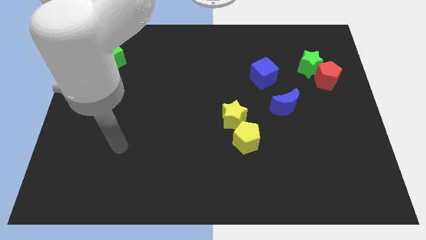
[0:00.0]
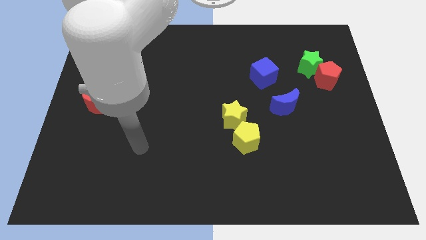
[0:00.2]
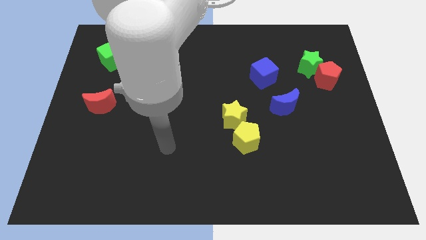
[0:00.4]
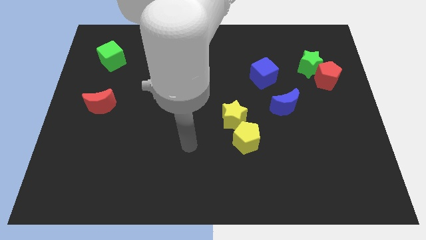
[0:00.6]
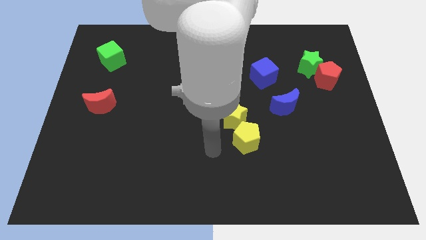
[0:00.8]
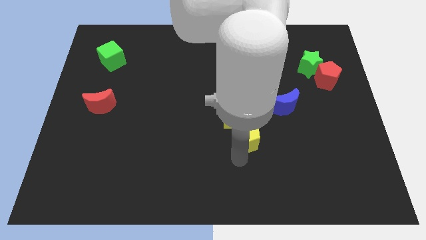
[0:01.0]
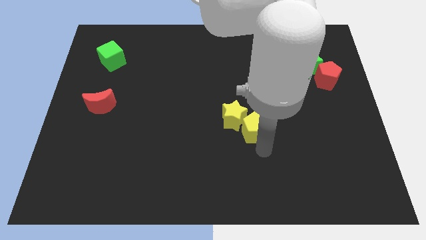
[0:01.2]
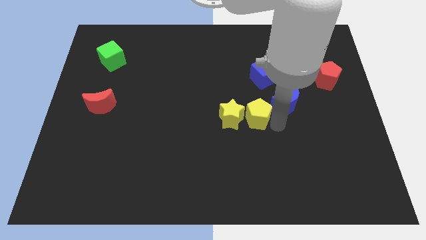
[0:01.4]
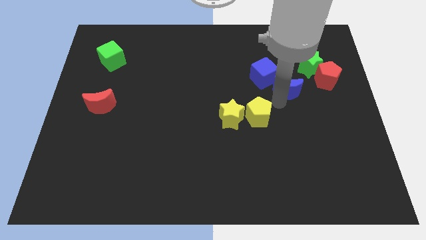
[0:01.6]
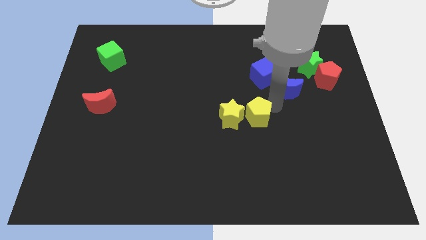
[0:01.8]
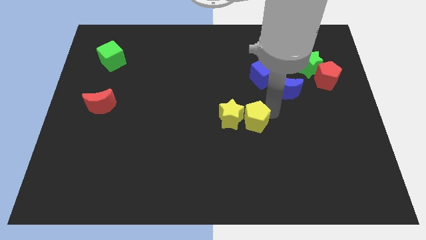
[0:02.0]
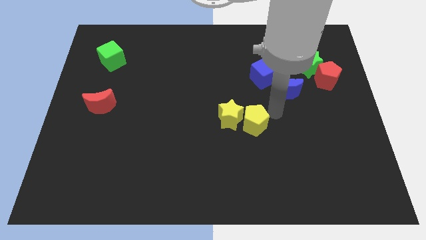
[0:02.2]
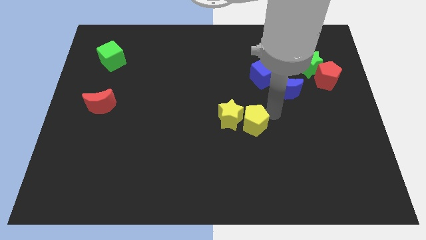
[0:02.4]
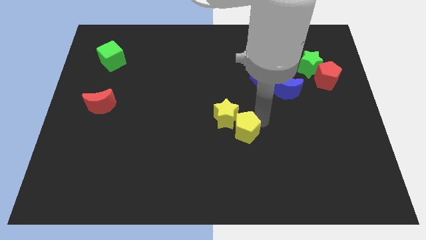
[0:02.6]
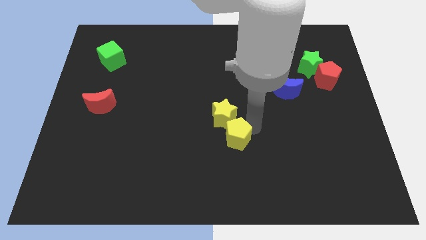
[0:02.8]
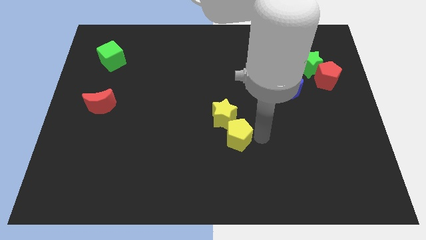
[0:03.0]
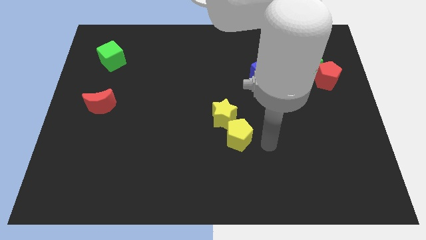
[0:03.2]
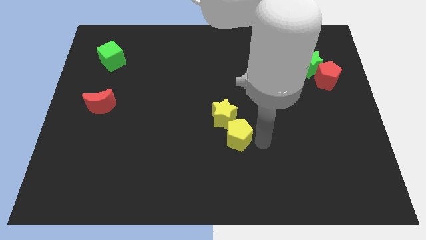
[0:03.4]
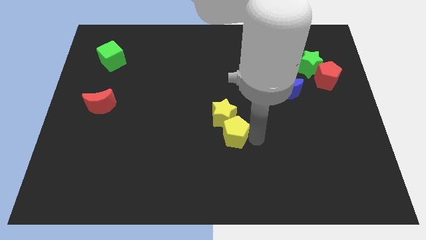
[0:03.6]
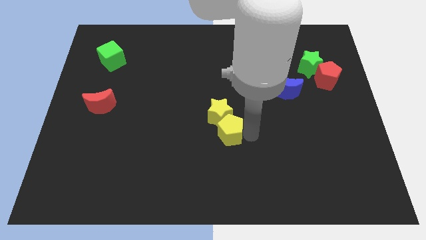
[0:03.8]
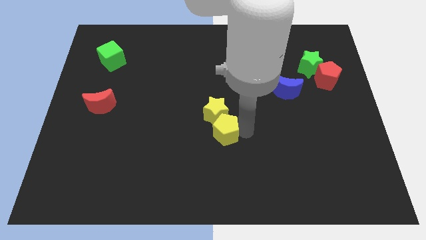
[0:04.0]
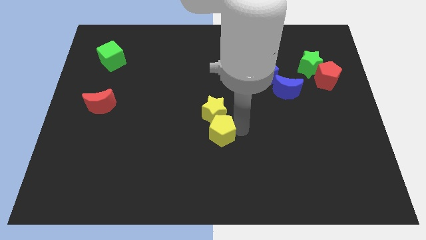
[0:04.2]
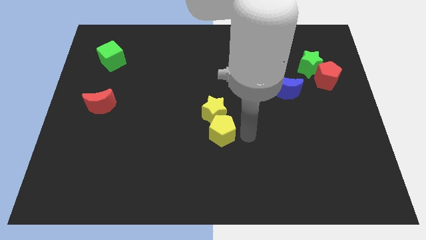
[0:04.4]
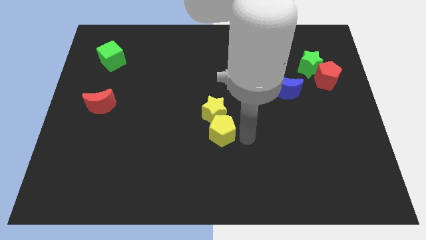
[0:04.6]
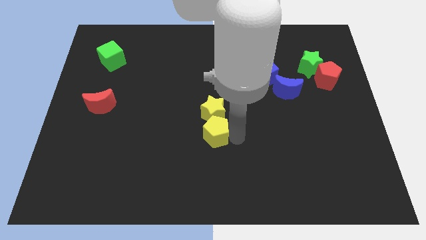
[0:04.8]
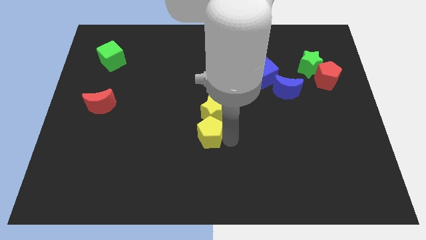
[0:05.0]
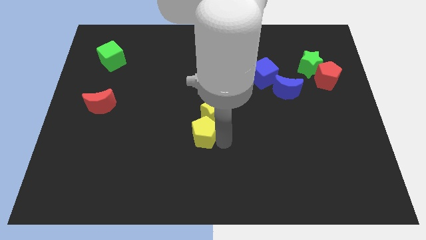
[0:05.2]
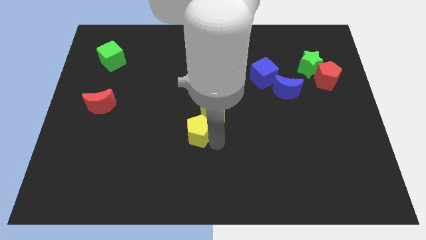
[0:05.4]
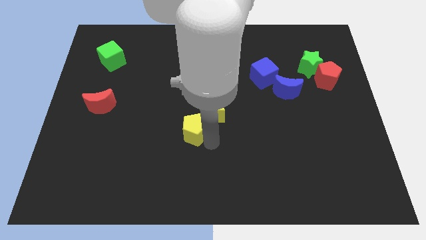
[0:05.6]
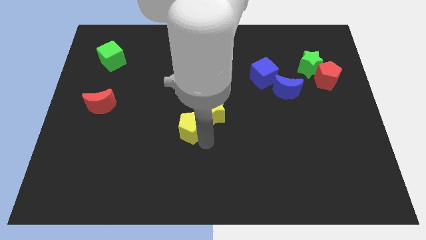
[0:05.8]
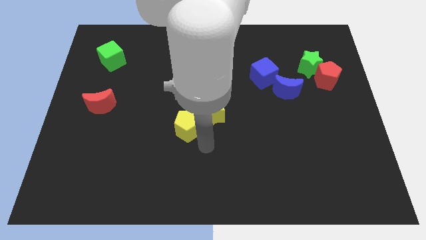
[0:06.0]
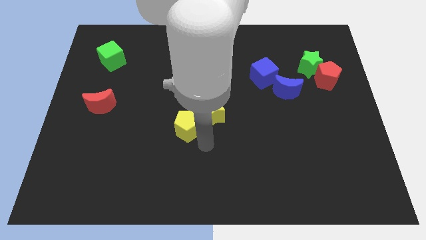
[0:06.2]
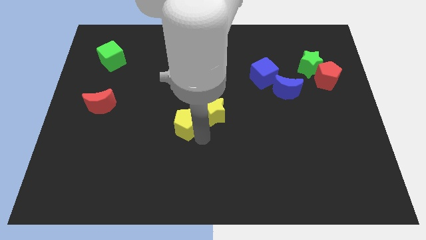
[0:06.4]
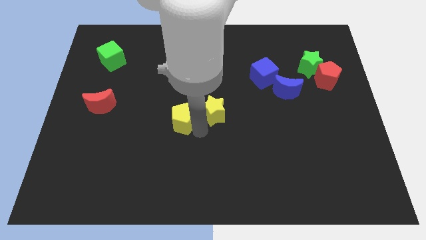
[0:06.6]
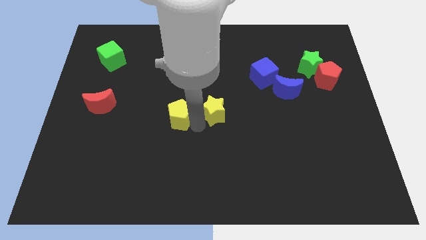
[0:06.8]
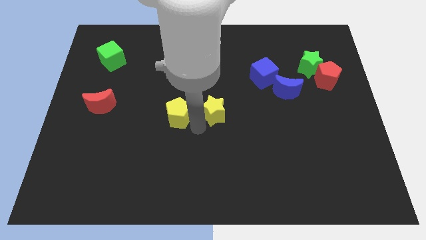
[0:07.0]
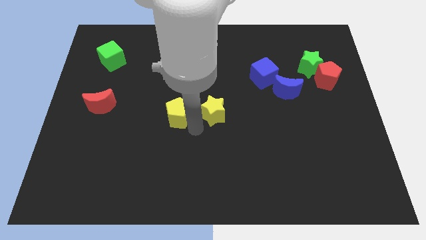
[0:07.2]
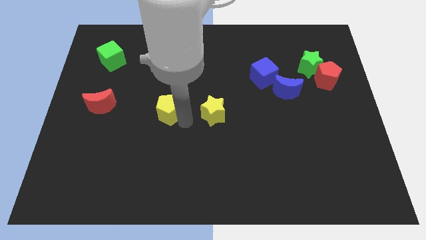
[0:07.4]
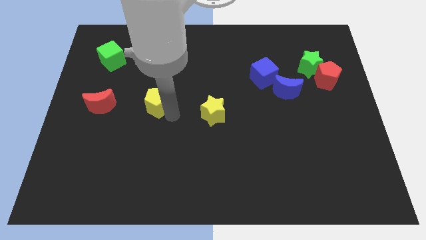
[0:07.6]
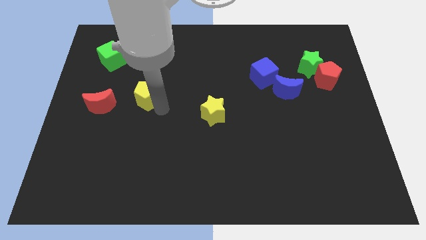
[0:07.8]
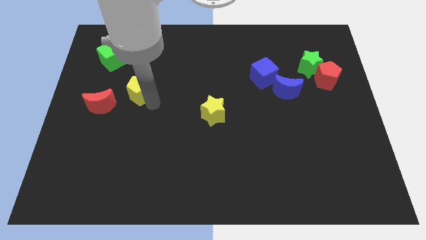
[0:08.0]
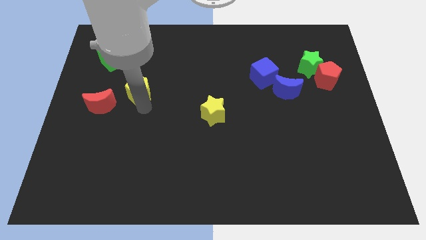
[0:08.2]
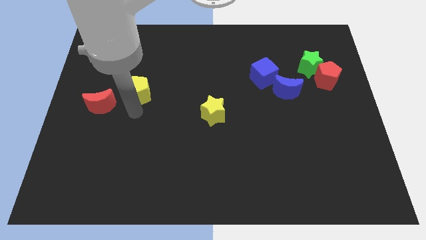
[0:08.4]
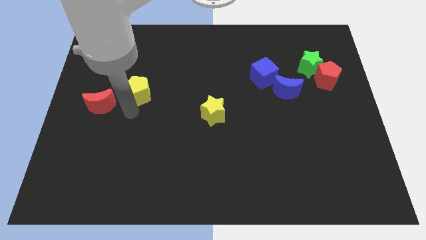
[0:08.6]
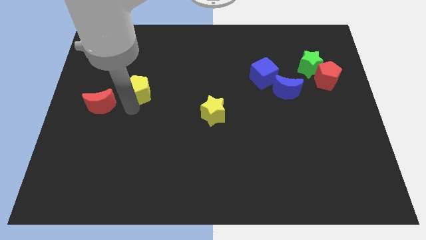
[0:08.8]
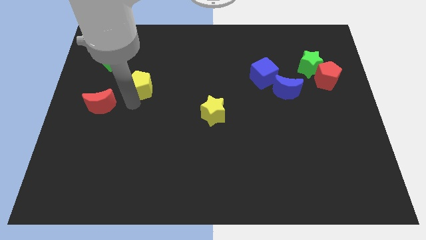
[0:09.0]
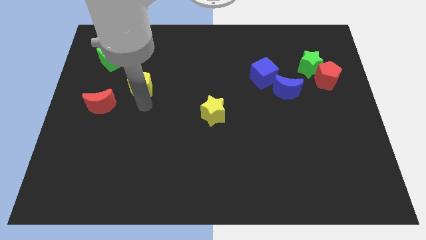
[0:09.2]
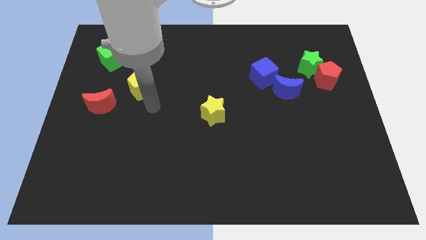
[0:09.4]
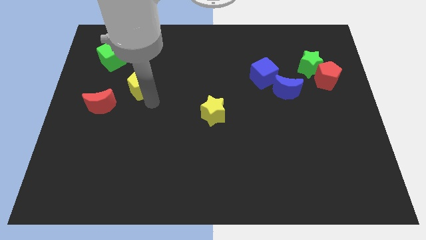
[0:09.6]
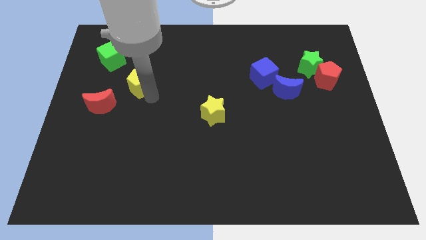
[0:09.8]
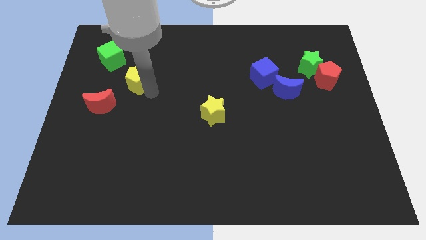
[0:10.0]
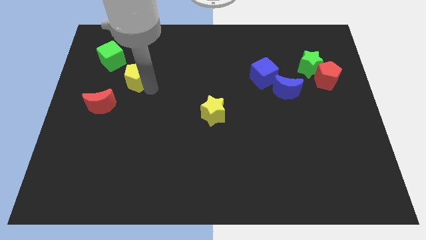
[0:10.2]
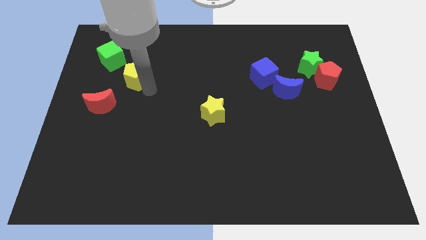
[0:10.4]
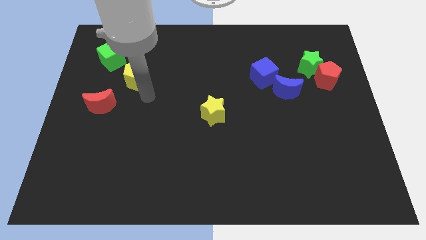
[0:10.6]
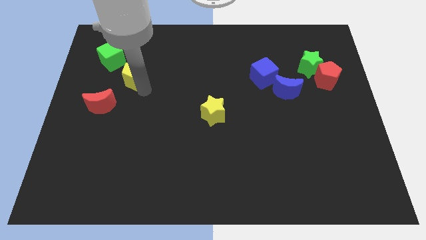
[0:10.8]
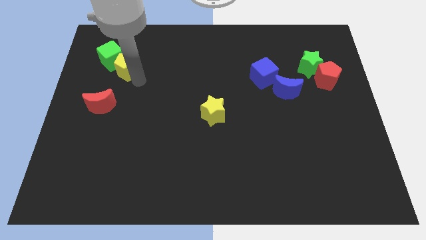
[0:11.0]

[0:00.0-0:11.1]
move the yellow pentagon towards the green cube

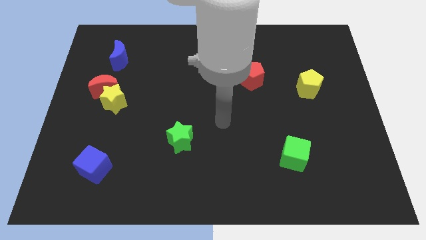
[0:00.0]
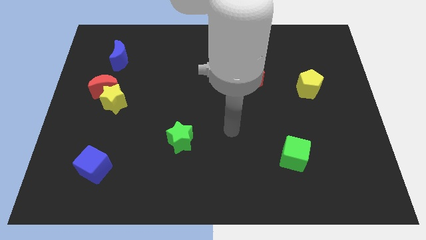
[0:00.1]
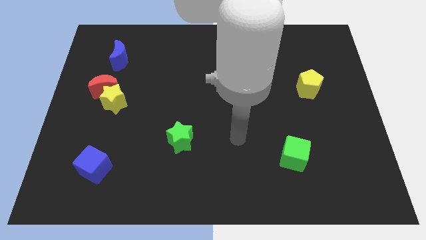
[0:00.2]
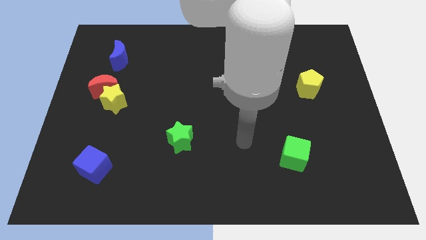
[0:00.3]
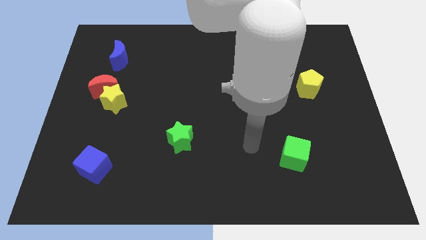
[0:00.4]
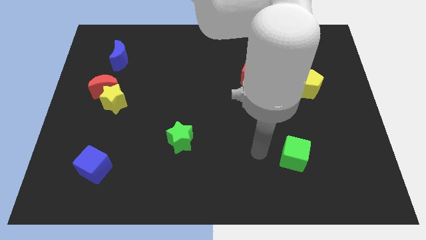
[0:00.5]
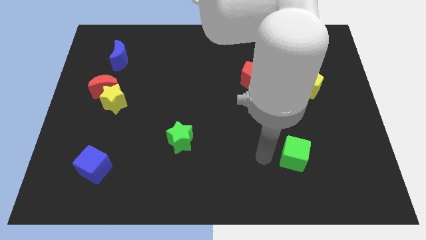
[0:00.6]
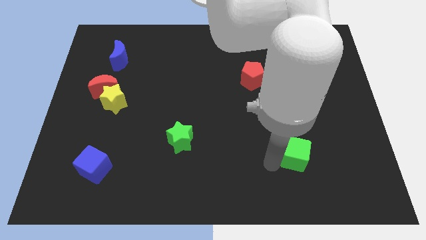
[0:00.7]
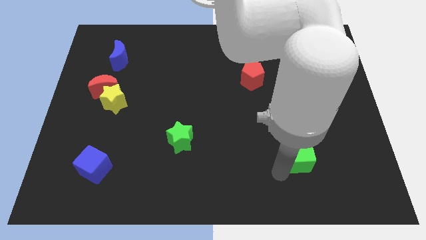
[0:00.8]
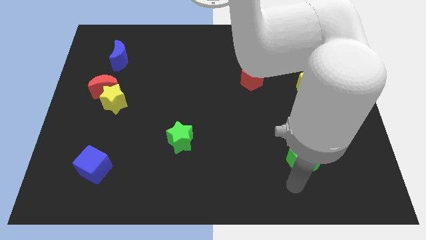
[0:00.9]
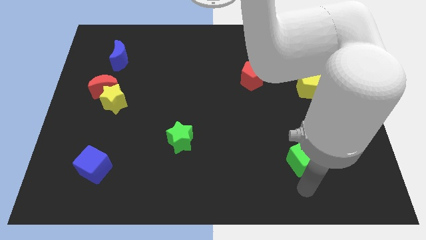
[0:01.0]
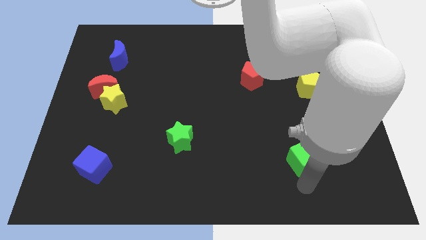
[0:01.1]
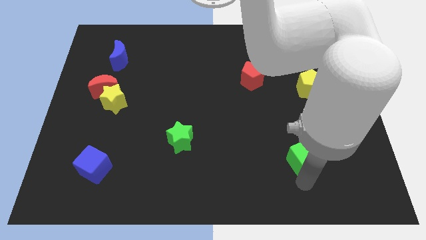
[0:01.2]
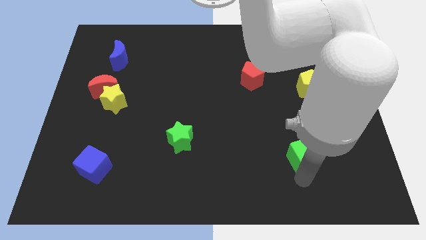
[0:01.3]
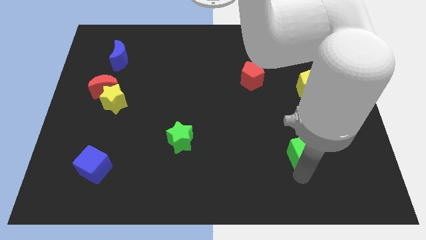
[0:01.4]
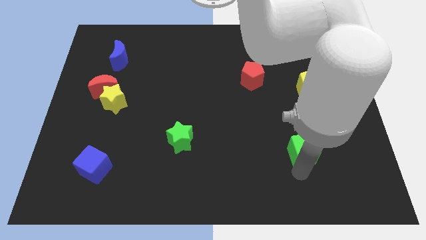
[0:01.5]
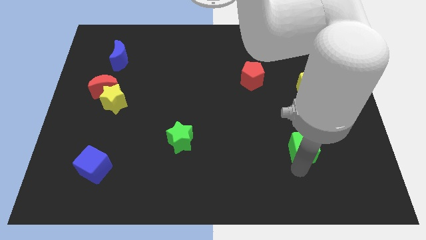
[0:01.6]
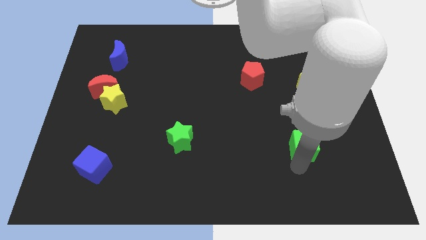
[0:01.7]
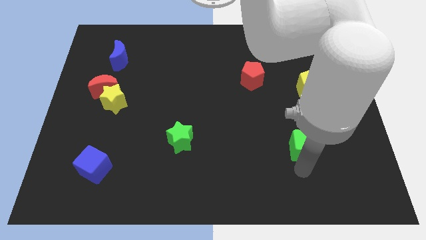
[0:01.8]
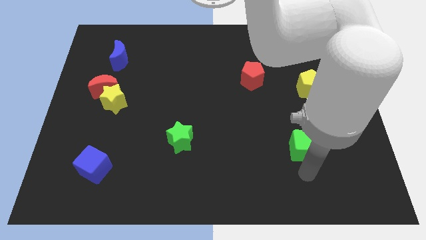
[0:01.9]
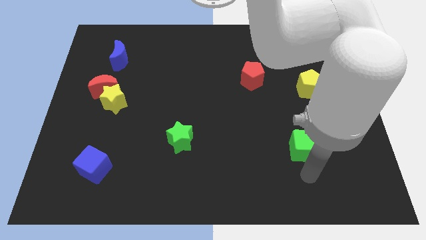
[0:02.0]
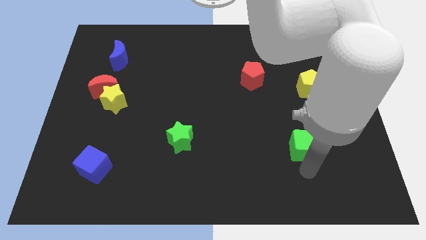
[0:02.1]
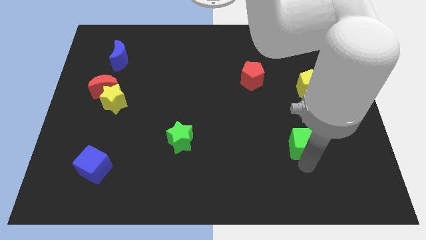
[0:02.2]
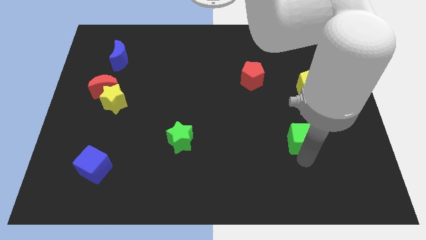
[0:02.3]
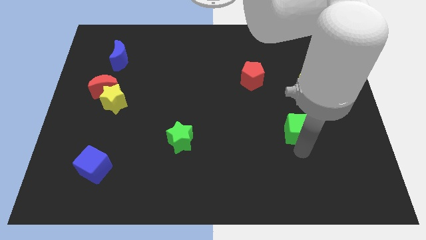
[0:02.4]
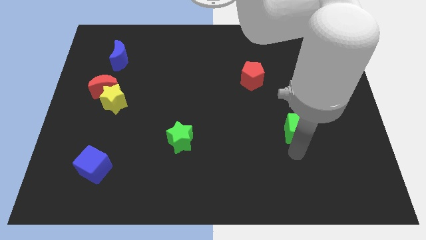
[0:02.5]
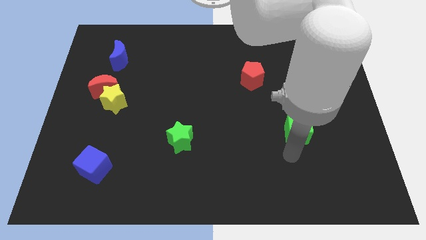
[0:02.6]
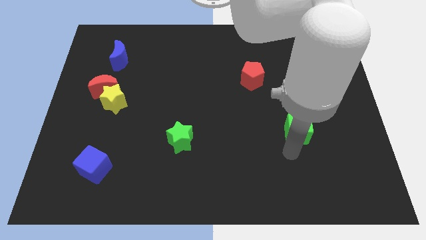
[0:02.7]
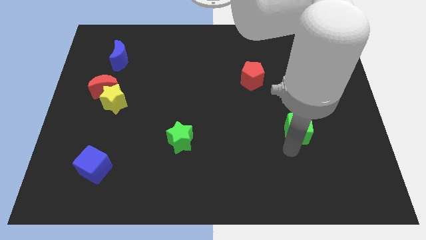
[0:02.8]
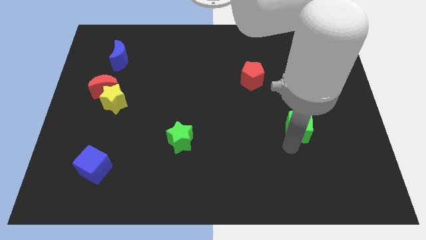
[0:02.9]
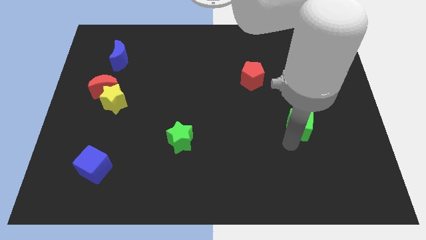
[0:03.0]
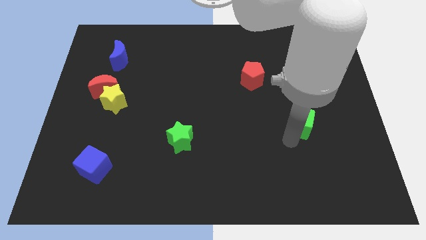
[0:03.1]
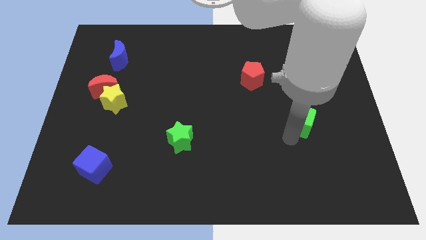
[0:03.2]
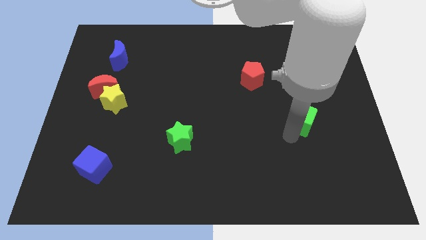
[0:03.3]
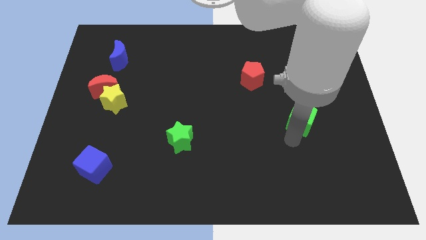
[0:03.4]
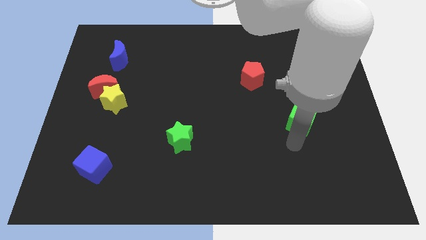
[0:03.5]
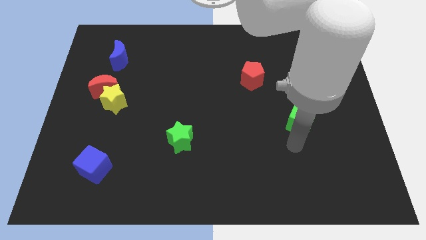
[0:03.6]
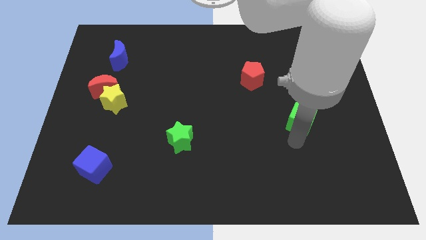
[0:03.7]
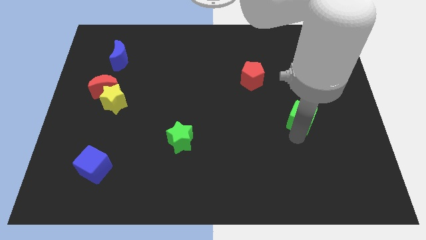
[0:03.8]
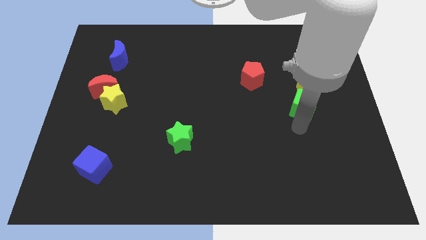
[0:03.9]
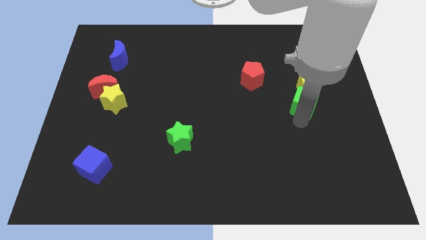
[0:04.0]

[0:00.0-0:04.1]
move the green cube to the yellow pentagon
